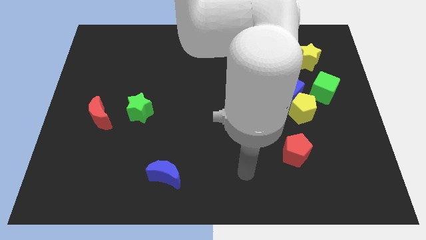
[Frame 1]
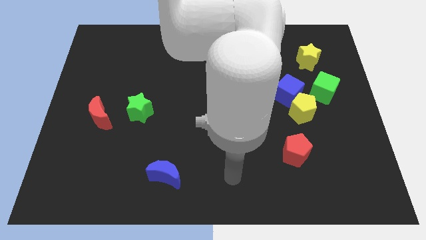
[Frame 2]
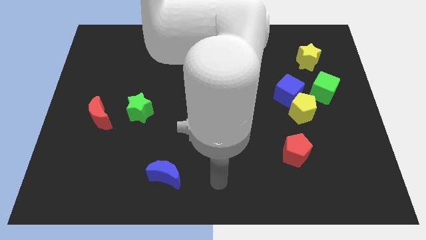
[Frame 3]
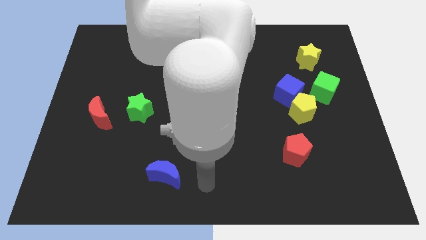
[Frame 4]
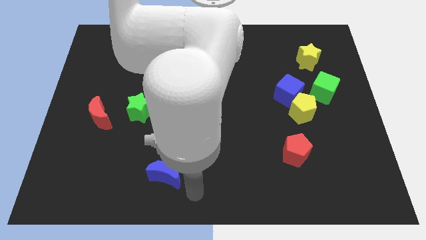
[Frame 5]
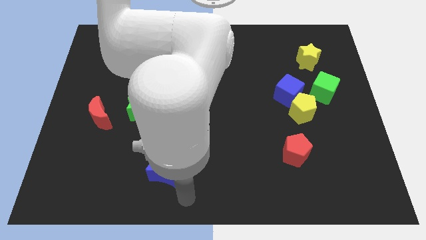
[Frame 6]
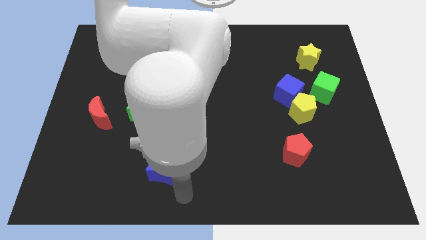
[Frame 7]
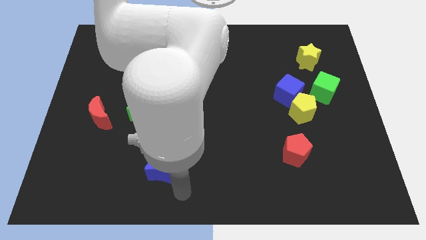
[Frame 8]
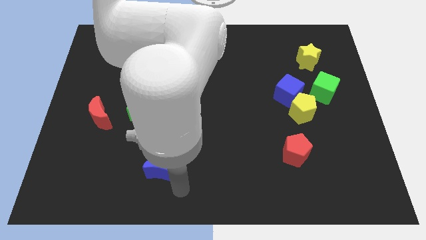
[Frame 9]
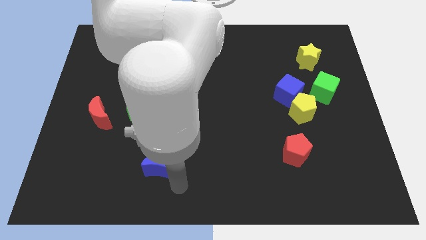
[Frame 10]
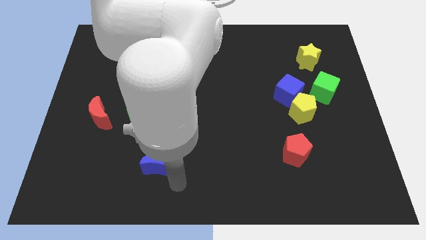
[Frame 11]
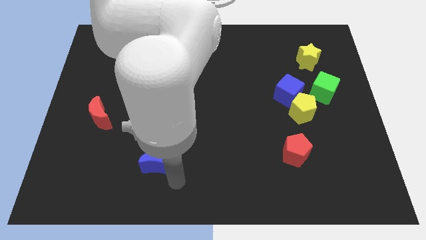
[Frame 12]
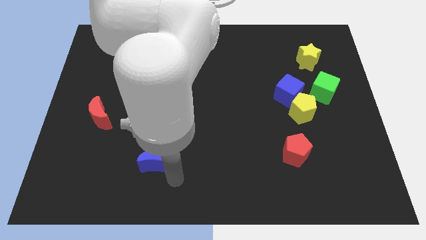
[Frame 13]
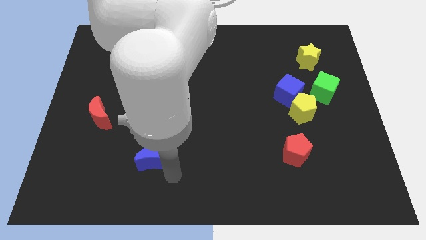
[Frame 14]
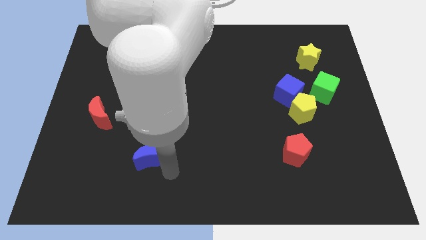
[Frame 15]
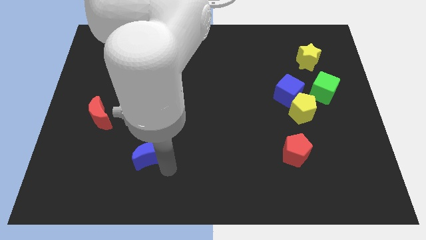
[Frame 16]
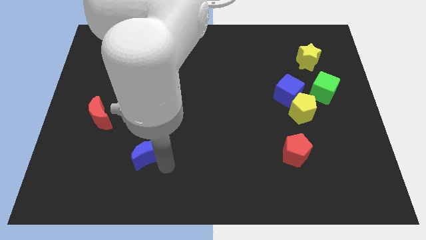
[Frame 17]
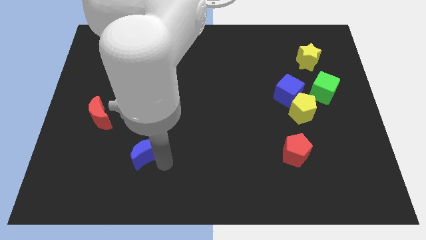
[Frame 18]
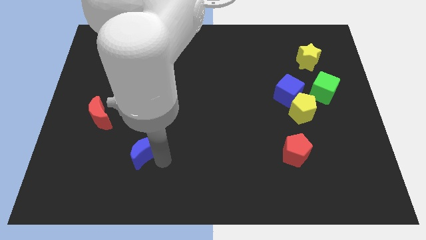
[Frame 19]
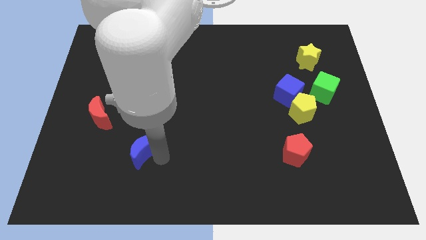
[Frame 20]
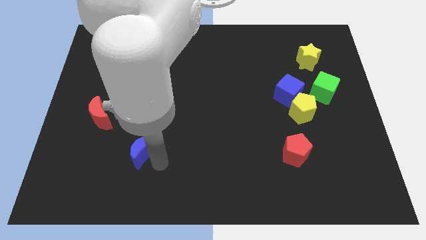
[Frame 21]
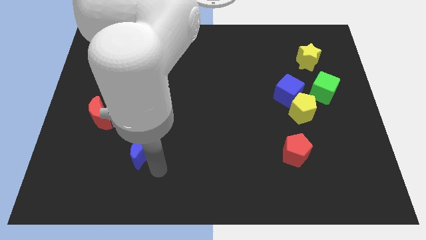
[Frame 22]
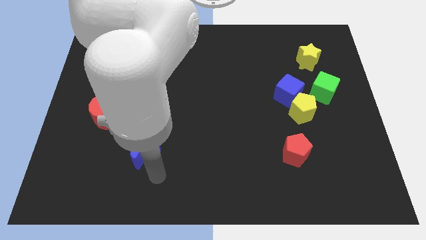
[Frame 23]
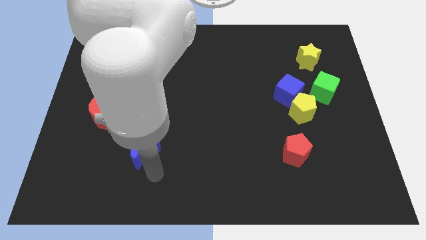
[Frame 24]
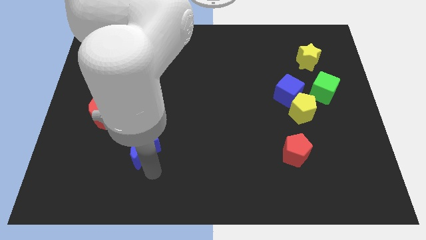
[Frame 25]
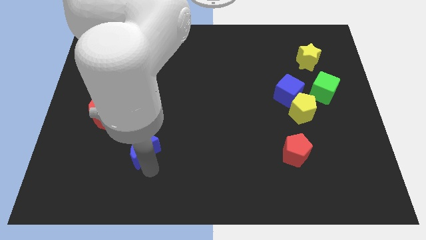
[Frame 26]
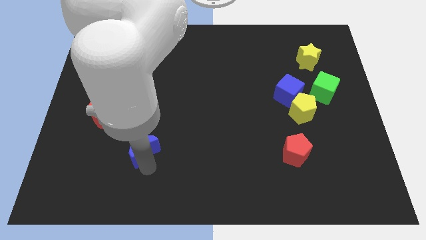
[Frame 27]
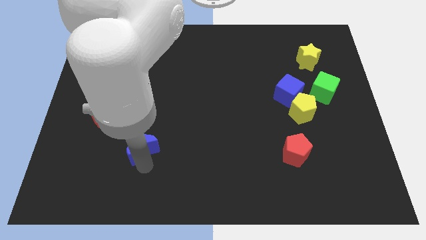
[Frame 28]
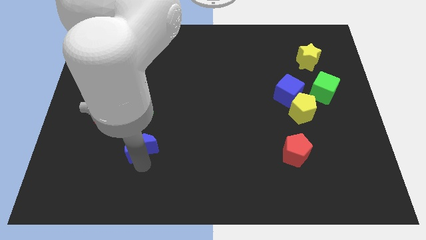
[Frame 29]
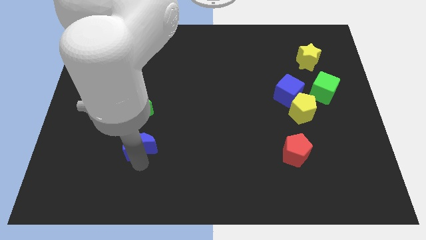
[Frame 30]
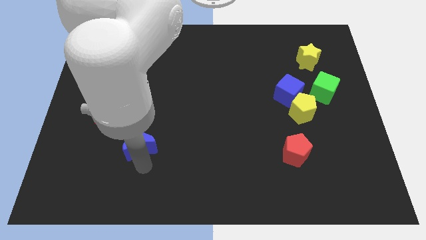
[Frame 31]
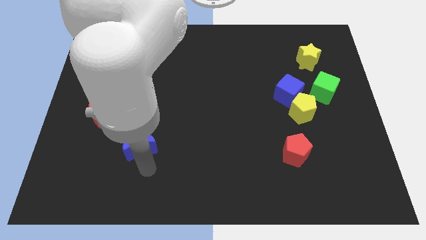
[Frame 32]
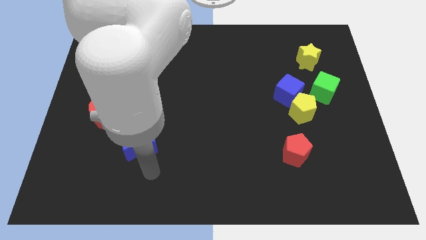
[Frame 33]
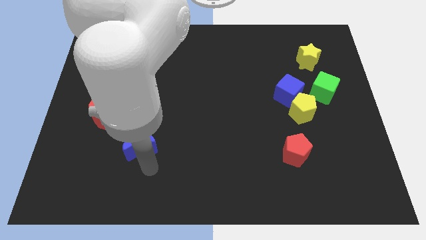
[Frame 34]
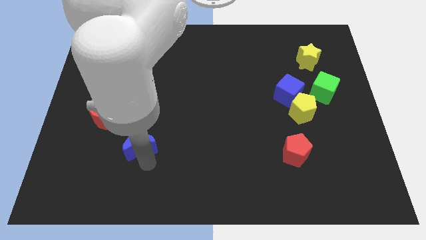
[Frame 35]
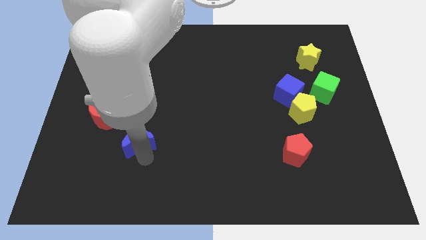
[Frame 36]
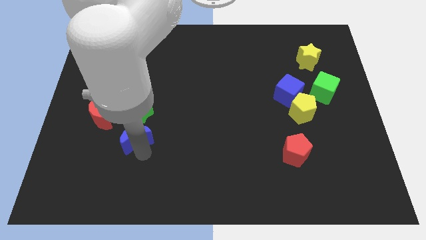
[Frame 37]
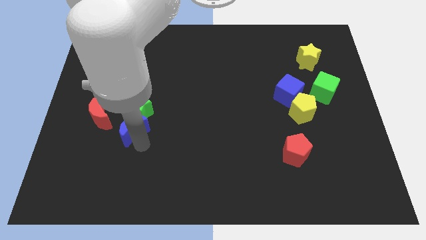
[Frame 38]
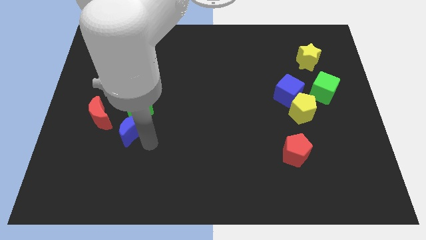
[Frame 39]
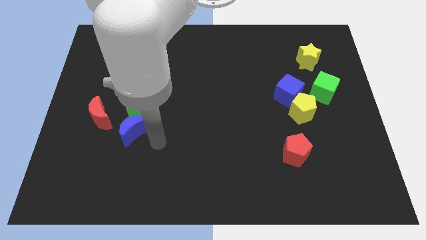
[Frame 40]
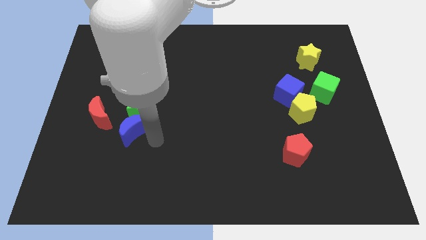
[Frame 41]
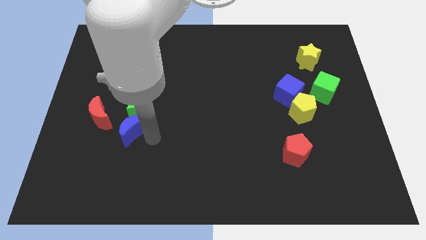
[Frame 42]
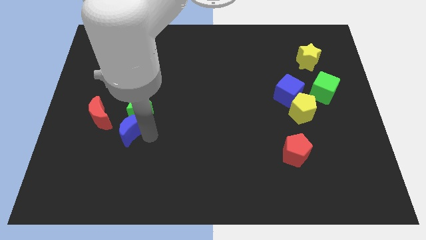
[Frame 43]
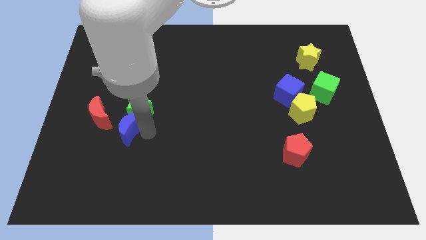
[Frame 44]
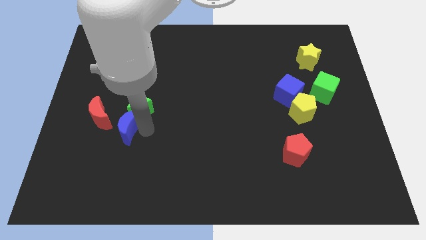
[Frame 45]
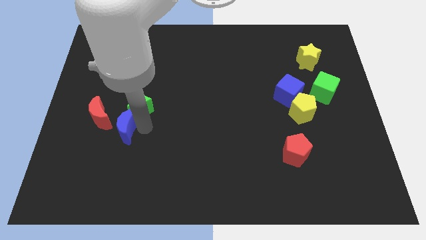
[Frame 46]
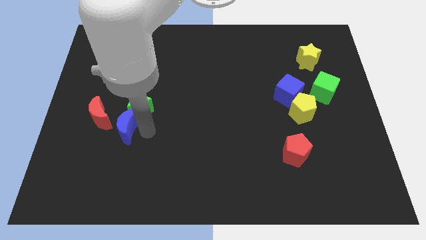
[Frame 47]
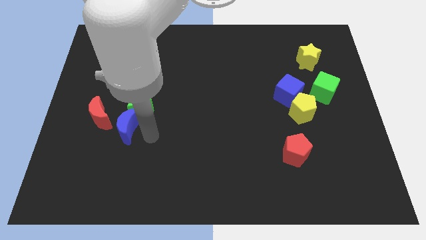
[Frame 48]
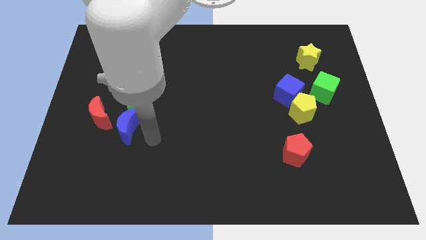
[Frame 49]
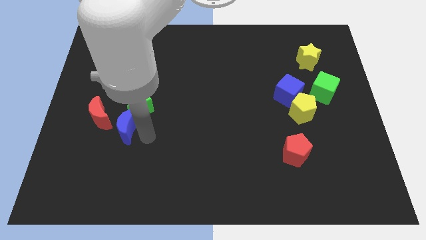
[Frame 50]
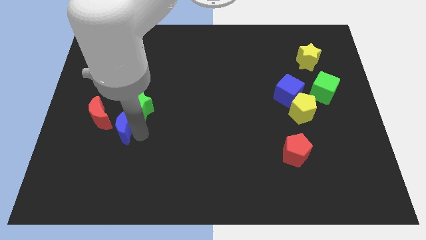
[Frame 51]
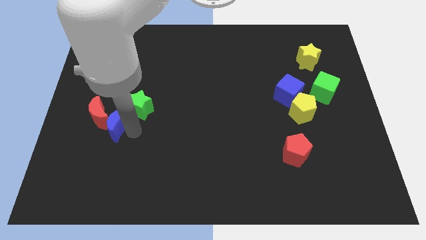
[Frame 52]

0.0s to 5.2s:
move the blue moon towards the red moon

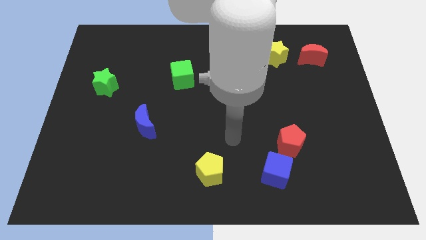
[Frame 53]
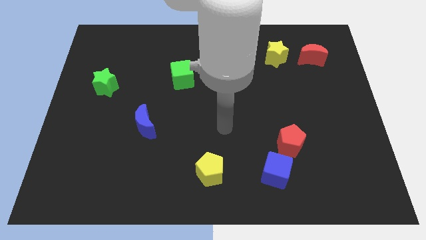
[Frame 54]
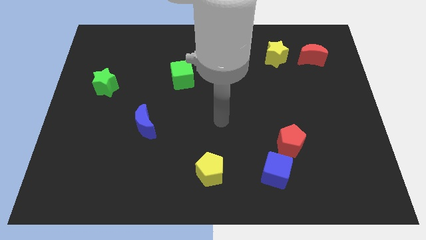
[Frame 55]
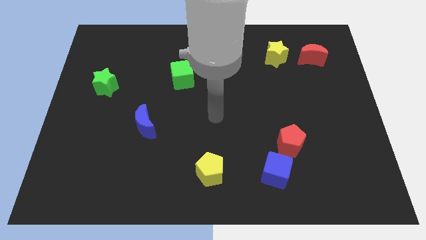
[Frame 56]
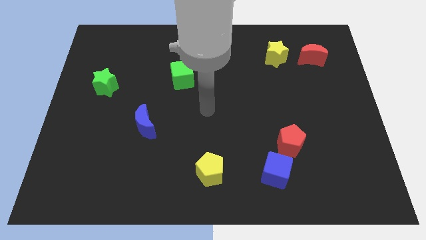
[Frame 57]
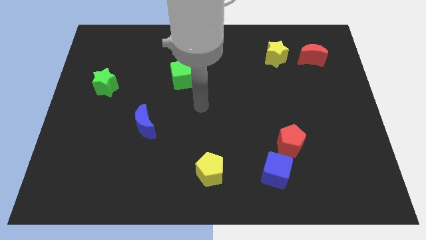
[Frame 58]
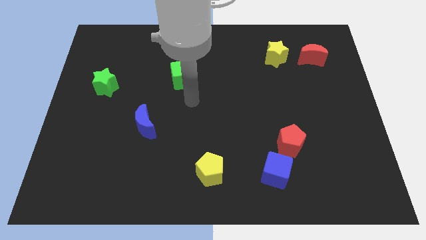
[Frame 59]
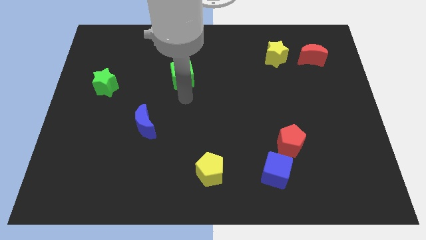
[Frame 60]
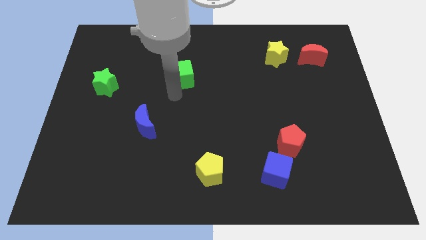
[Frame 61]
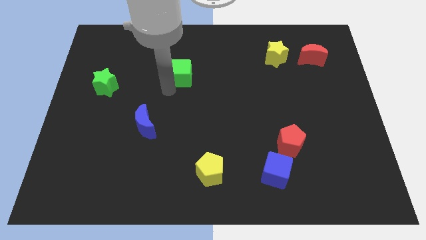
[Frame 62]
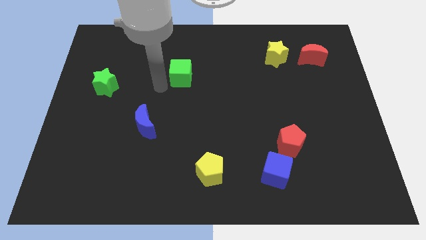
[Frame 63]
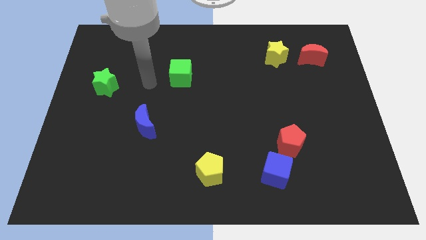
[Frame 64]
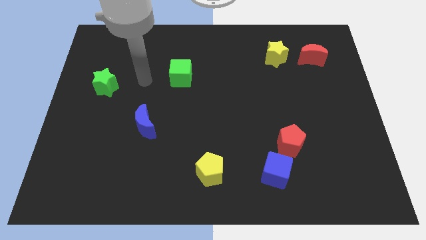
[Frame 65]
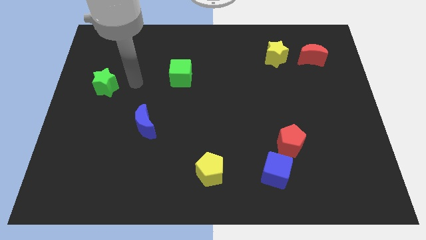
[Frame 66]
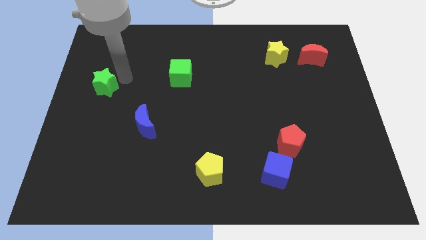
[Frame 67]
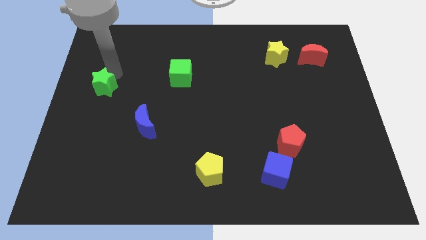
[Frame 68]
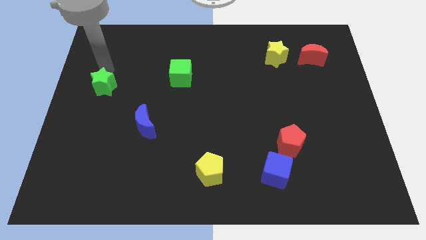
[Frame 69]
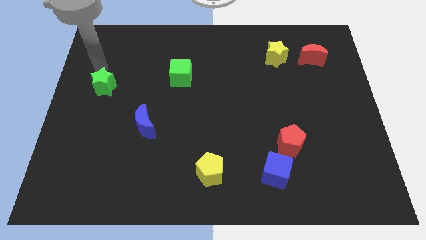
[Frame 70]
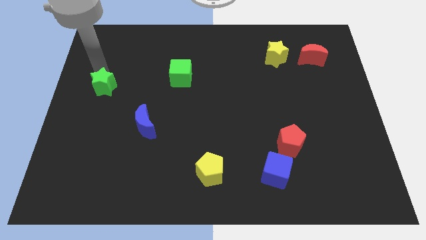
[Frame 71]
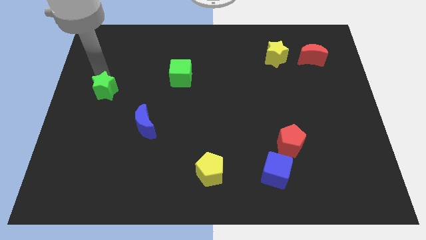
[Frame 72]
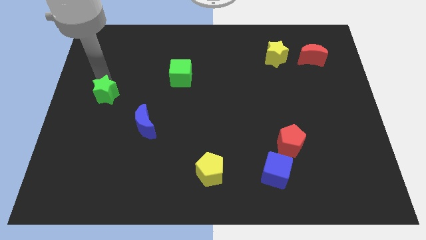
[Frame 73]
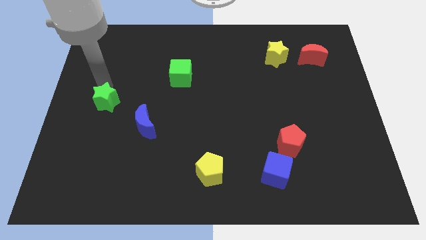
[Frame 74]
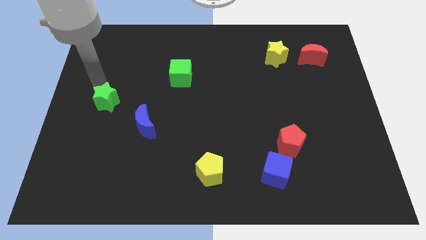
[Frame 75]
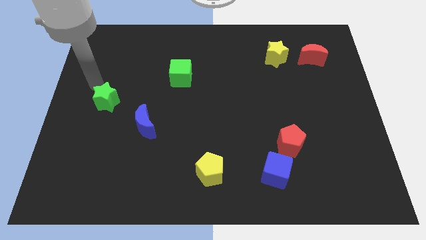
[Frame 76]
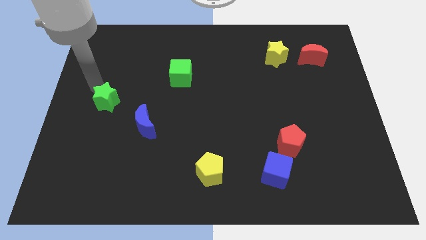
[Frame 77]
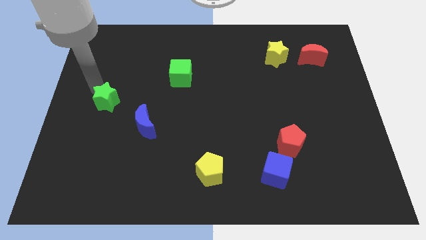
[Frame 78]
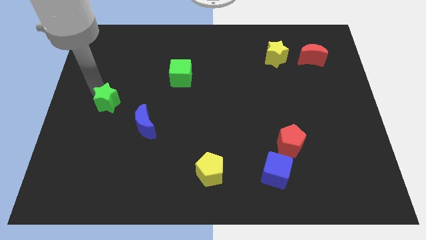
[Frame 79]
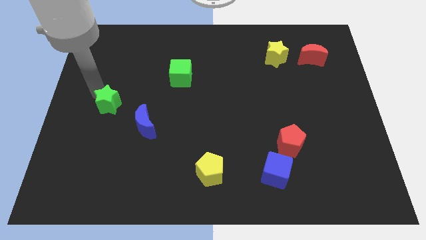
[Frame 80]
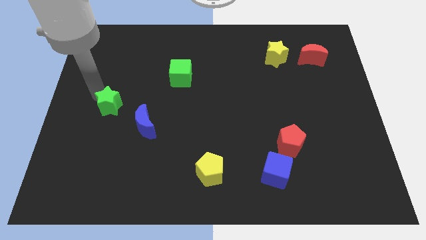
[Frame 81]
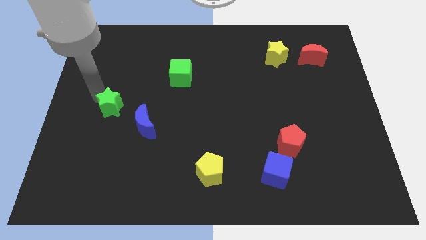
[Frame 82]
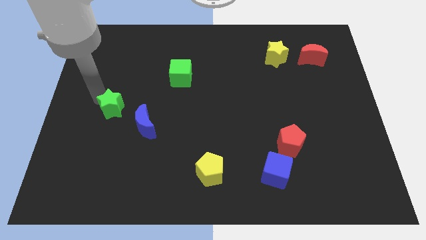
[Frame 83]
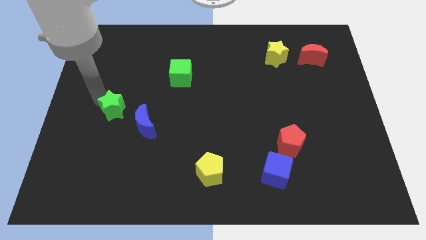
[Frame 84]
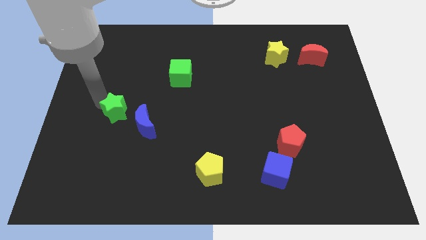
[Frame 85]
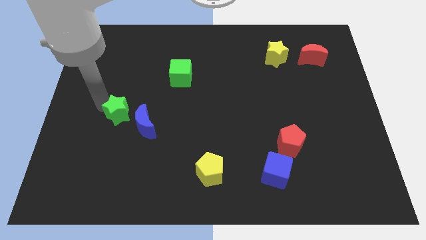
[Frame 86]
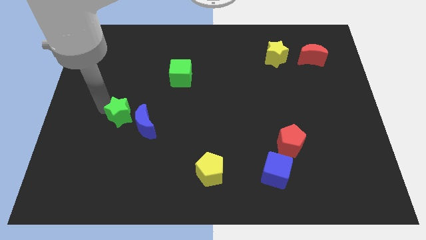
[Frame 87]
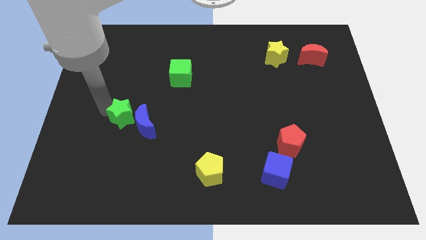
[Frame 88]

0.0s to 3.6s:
push the green star towards the blue moon
